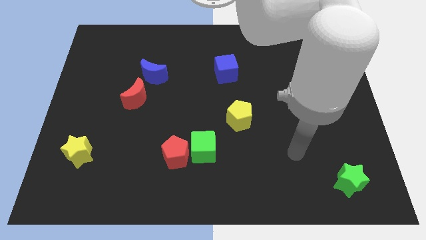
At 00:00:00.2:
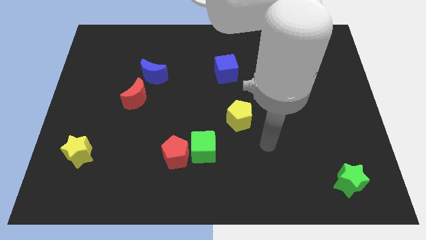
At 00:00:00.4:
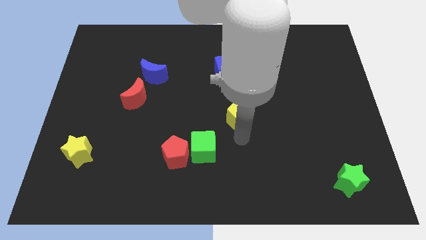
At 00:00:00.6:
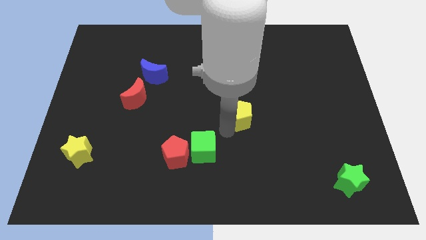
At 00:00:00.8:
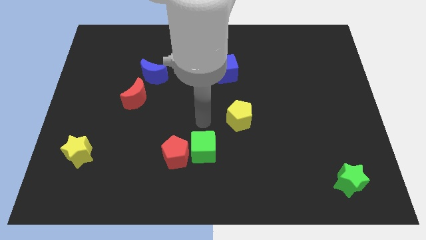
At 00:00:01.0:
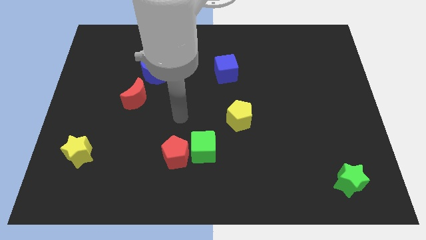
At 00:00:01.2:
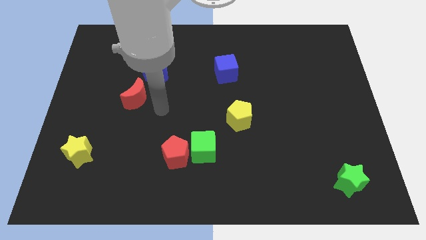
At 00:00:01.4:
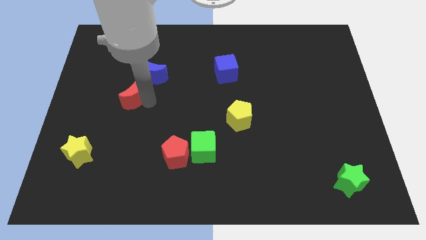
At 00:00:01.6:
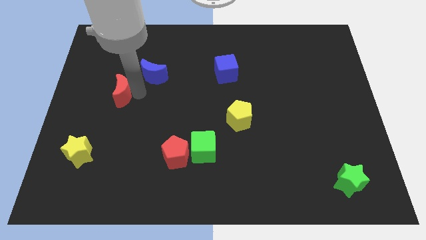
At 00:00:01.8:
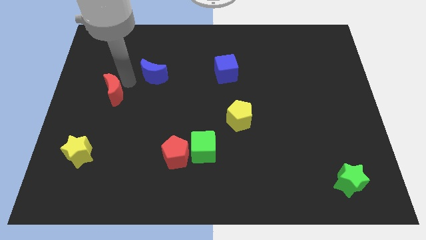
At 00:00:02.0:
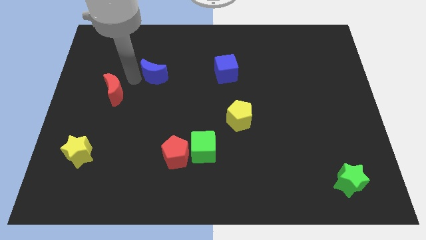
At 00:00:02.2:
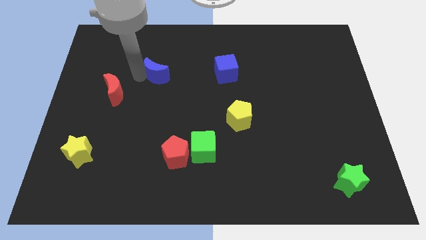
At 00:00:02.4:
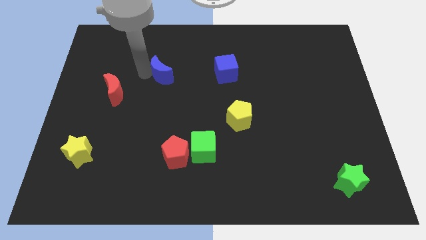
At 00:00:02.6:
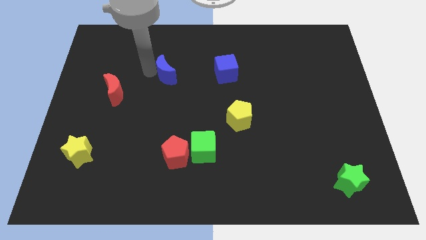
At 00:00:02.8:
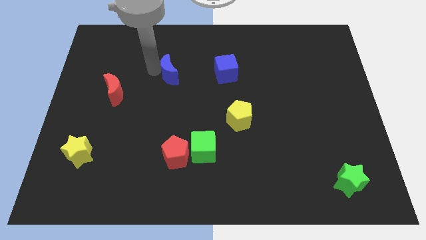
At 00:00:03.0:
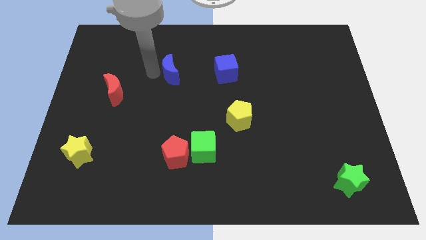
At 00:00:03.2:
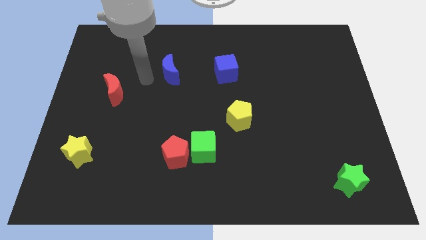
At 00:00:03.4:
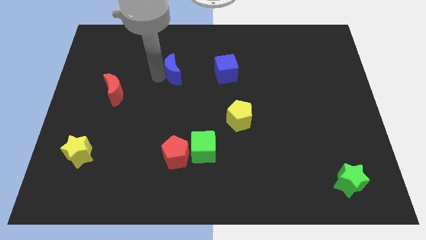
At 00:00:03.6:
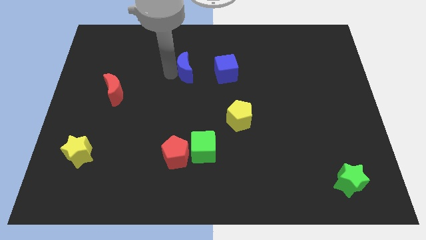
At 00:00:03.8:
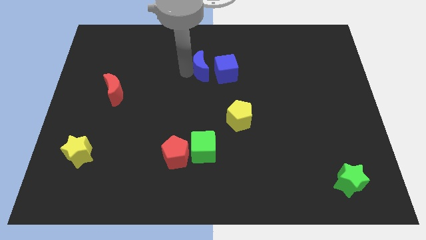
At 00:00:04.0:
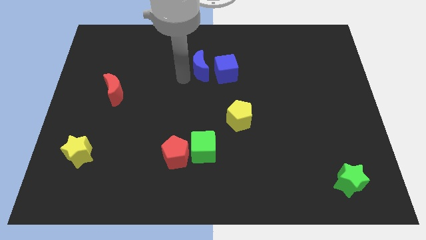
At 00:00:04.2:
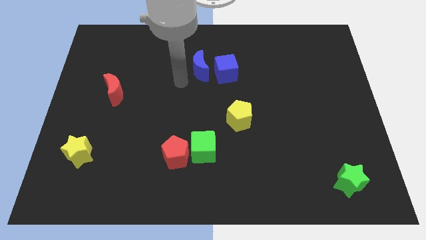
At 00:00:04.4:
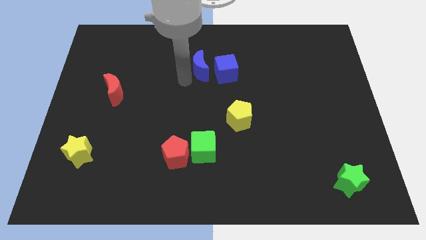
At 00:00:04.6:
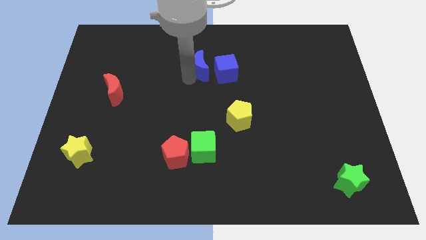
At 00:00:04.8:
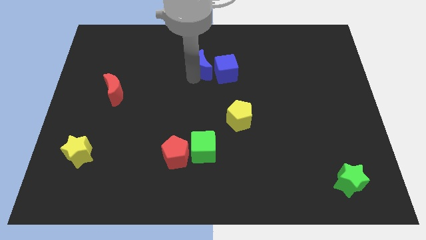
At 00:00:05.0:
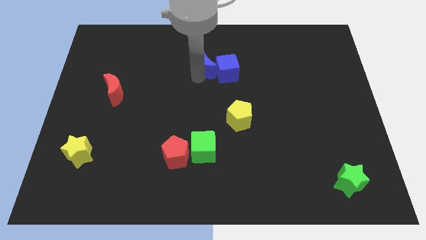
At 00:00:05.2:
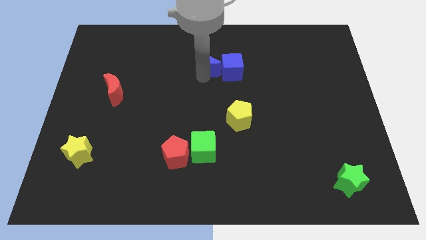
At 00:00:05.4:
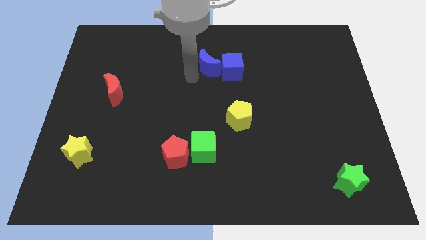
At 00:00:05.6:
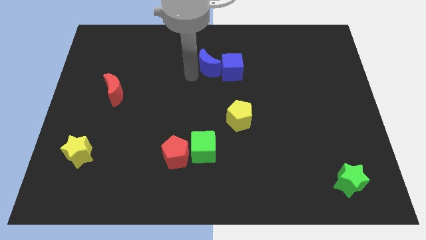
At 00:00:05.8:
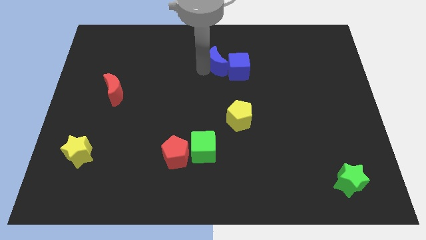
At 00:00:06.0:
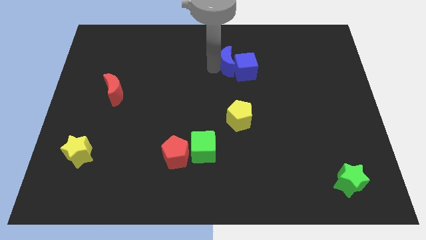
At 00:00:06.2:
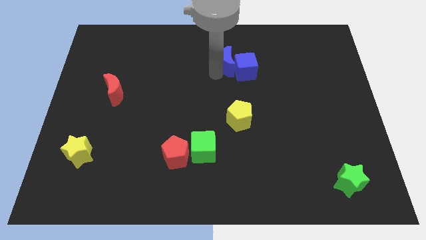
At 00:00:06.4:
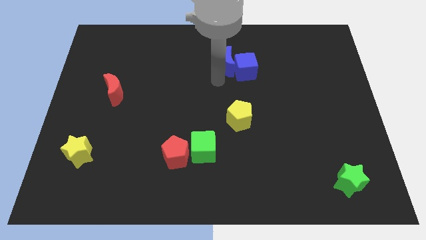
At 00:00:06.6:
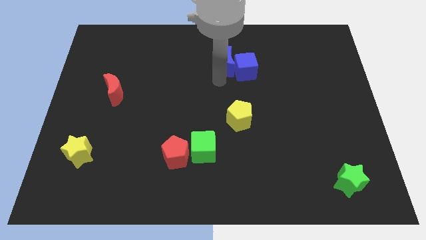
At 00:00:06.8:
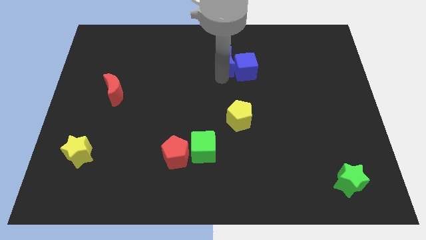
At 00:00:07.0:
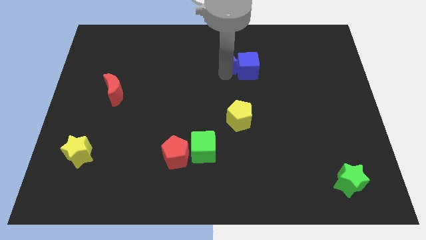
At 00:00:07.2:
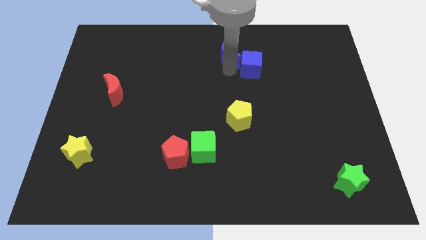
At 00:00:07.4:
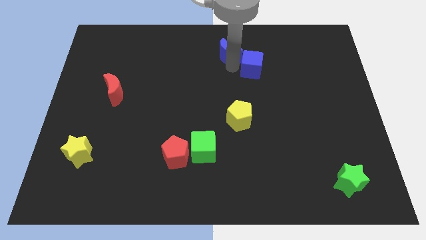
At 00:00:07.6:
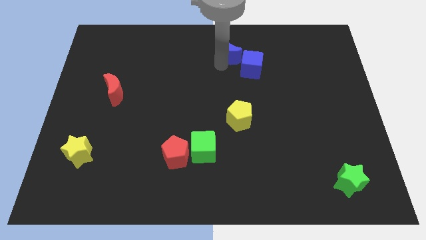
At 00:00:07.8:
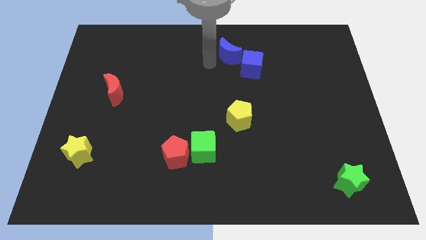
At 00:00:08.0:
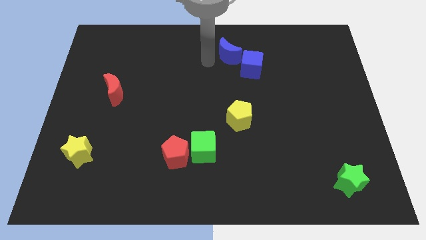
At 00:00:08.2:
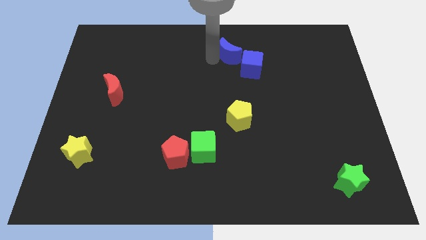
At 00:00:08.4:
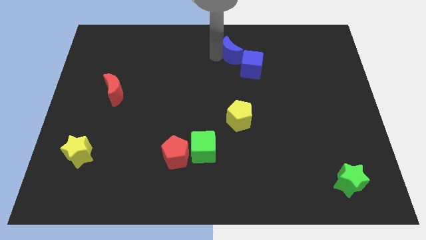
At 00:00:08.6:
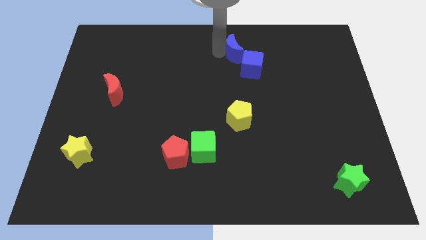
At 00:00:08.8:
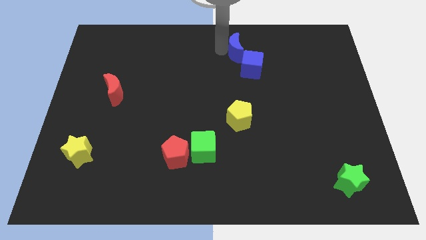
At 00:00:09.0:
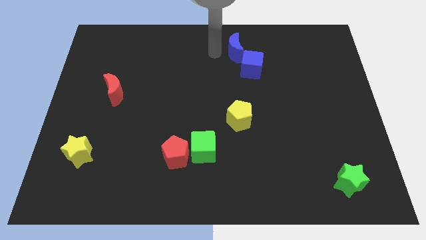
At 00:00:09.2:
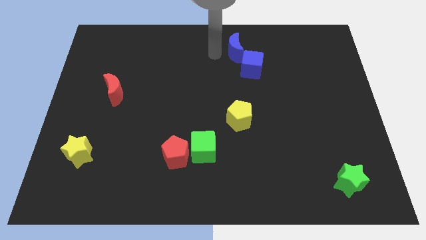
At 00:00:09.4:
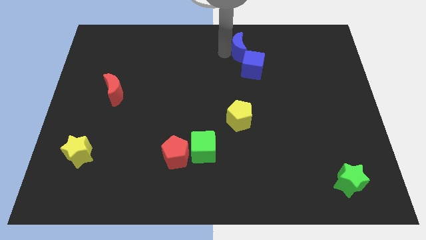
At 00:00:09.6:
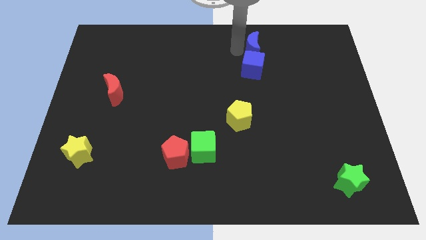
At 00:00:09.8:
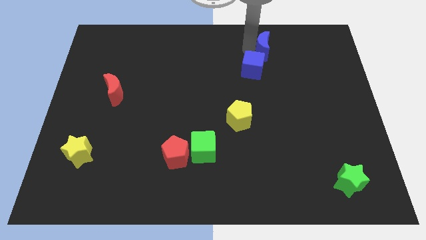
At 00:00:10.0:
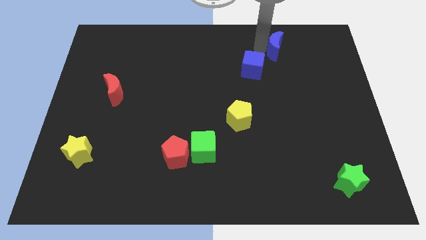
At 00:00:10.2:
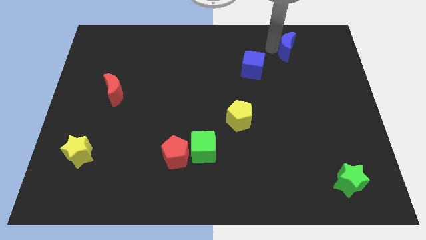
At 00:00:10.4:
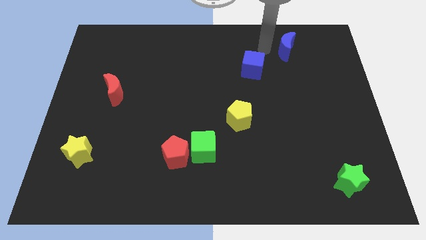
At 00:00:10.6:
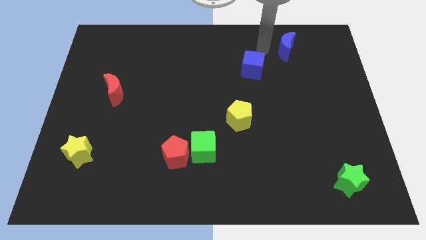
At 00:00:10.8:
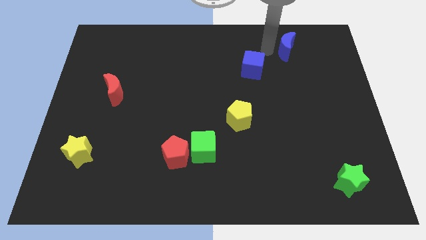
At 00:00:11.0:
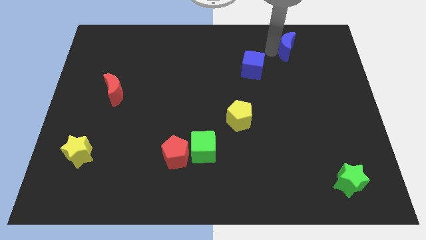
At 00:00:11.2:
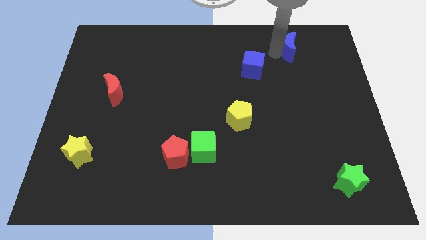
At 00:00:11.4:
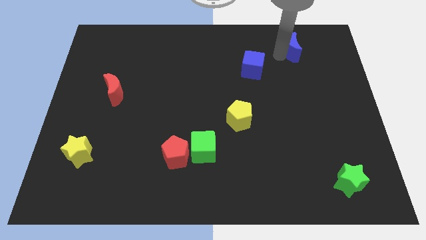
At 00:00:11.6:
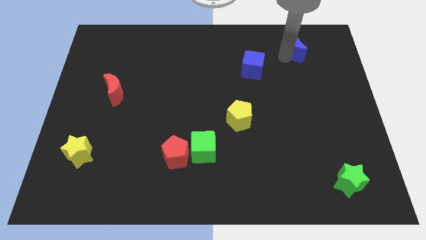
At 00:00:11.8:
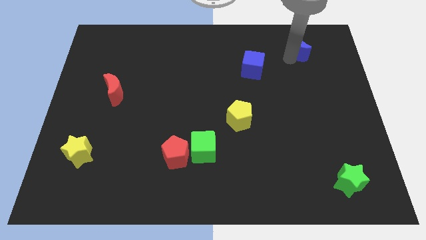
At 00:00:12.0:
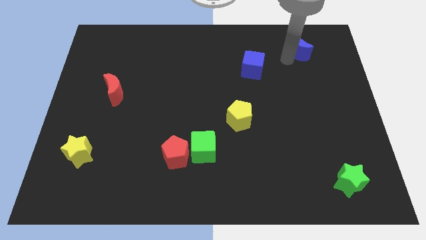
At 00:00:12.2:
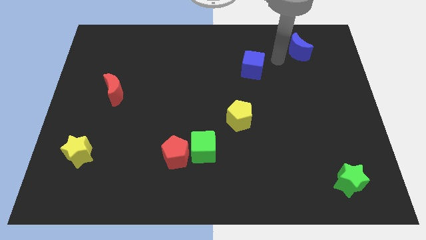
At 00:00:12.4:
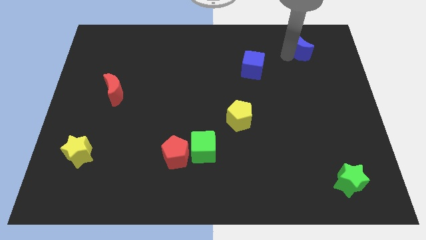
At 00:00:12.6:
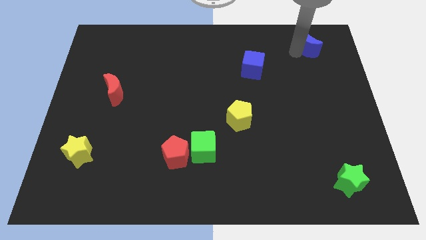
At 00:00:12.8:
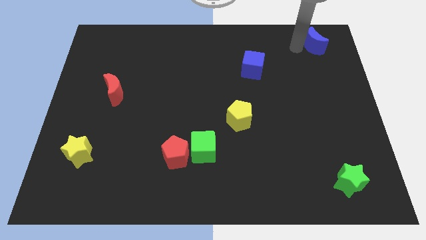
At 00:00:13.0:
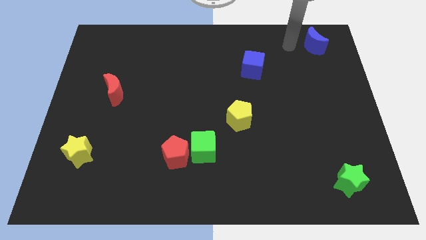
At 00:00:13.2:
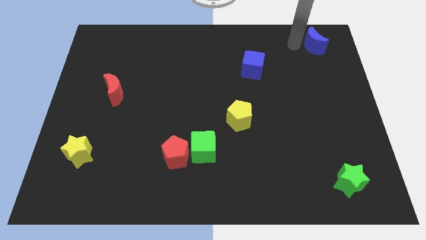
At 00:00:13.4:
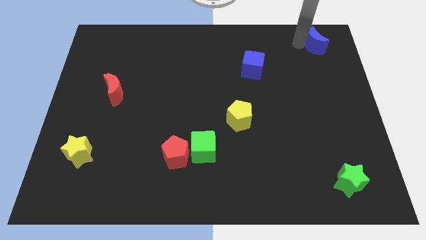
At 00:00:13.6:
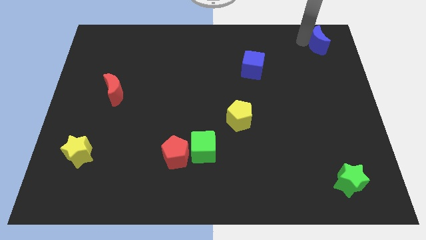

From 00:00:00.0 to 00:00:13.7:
push the blue moon to the upper right corner

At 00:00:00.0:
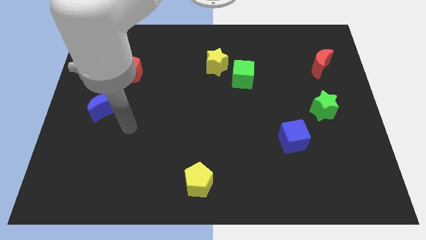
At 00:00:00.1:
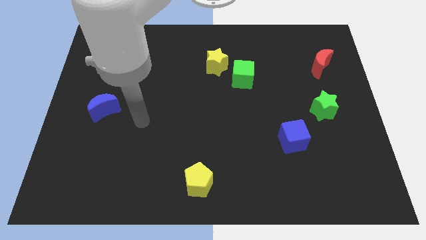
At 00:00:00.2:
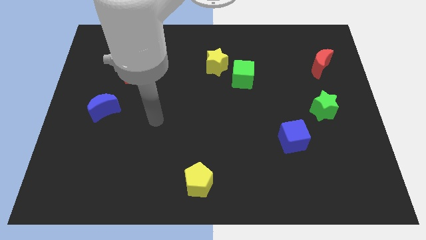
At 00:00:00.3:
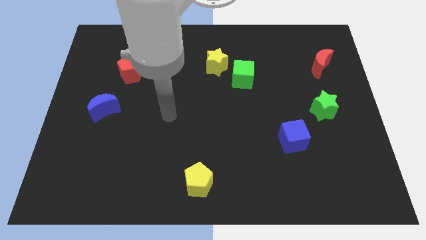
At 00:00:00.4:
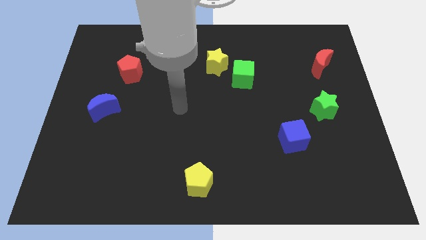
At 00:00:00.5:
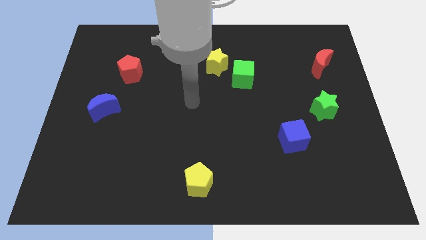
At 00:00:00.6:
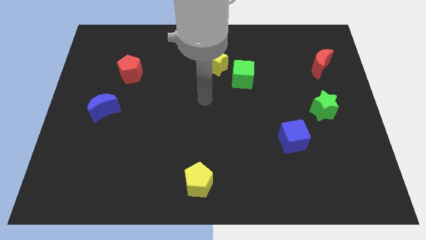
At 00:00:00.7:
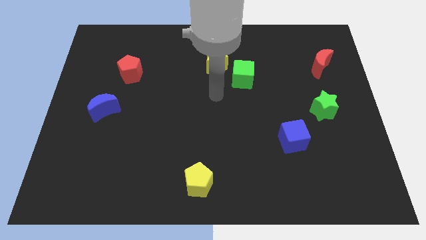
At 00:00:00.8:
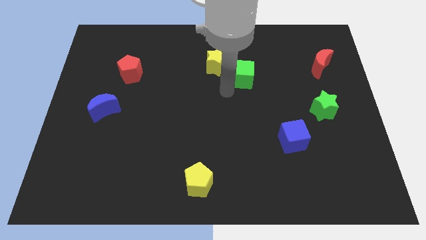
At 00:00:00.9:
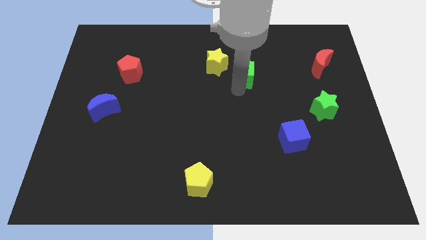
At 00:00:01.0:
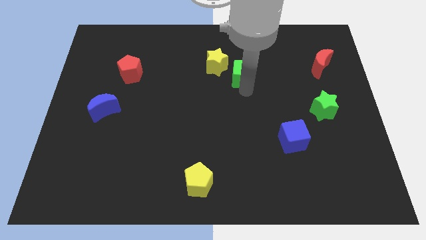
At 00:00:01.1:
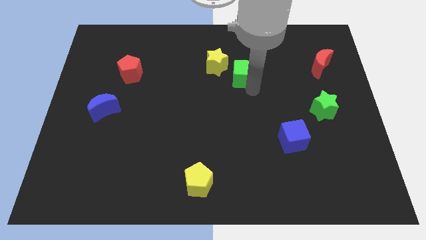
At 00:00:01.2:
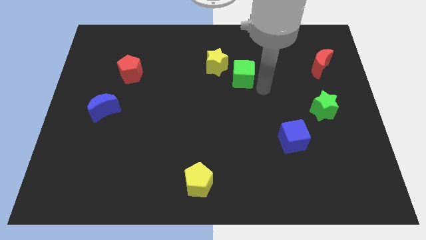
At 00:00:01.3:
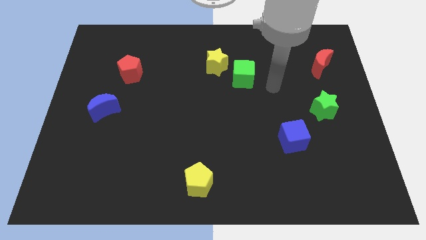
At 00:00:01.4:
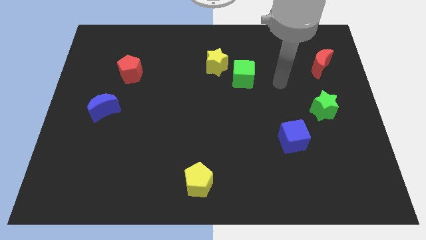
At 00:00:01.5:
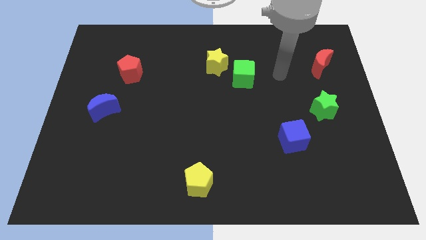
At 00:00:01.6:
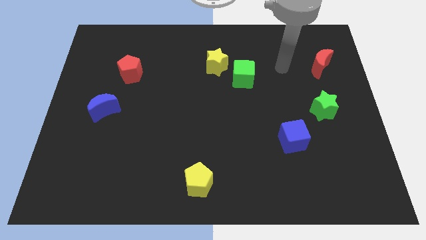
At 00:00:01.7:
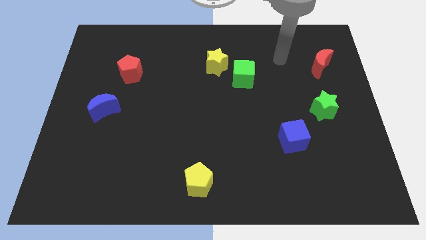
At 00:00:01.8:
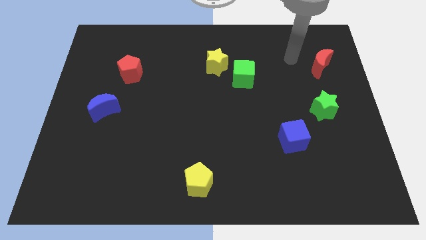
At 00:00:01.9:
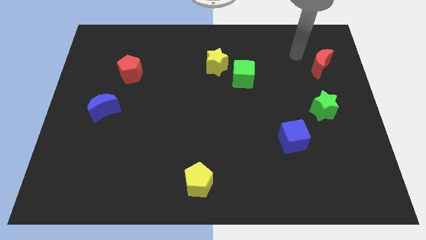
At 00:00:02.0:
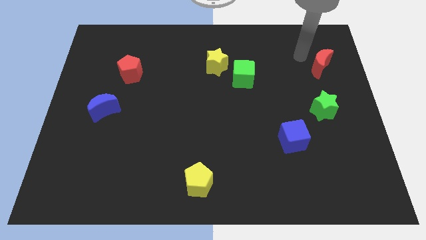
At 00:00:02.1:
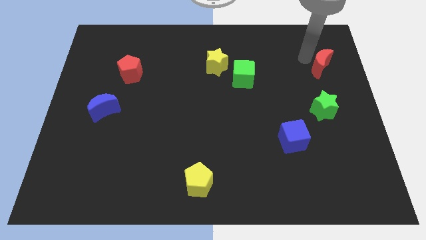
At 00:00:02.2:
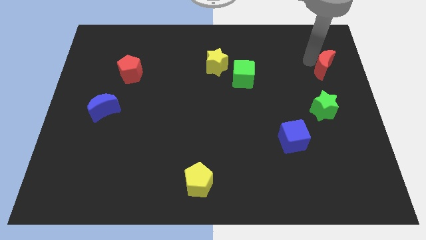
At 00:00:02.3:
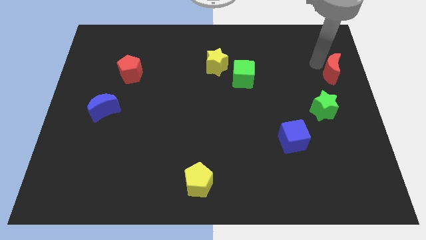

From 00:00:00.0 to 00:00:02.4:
move the red moon to the right side of the board
